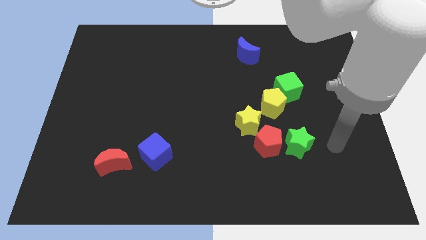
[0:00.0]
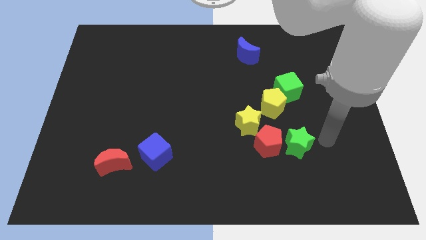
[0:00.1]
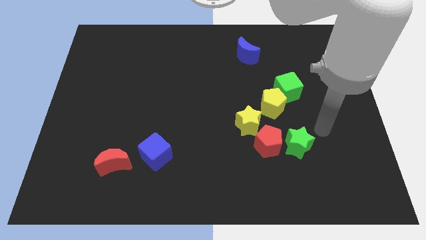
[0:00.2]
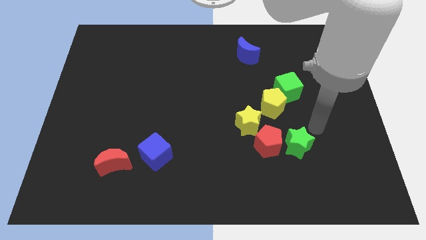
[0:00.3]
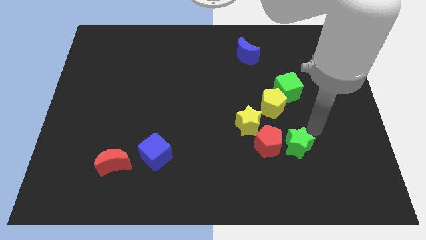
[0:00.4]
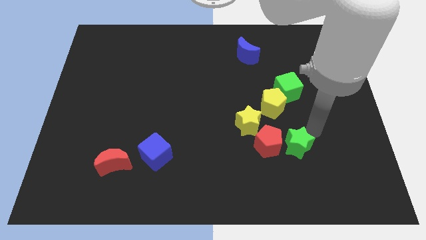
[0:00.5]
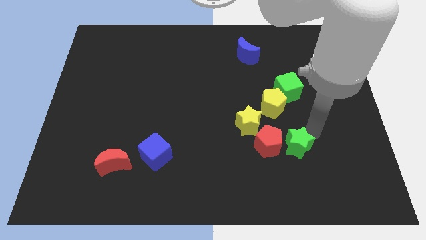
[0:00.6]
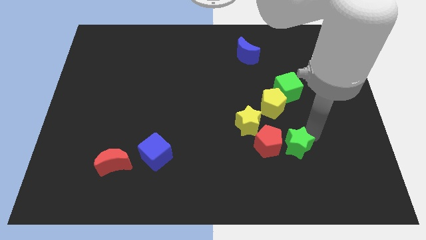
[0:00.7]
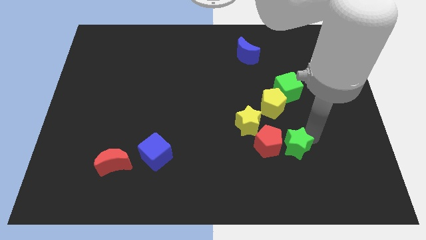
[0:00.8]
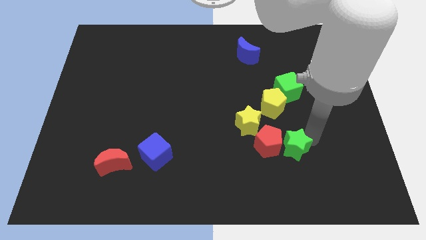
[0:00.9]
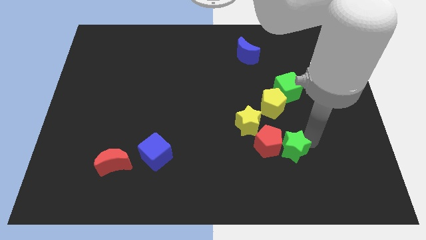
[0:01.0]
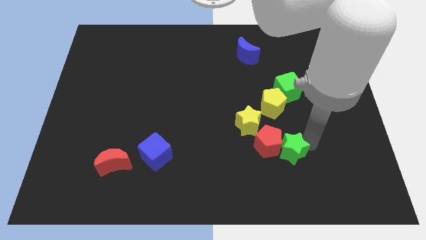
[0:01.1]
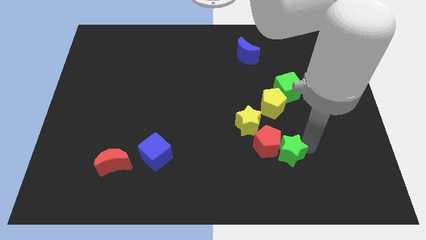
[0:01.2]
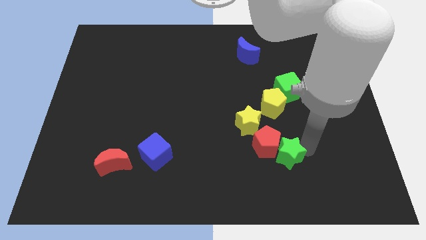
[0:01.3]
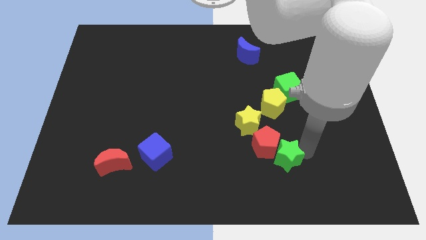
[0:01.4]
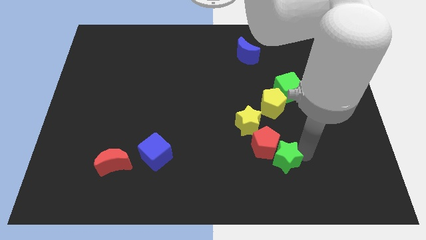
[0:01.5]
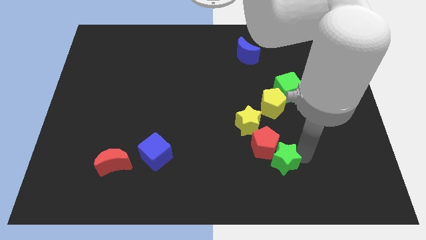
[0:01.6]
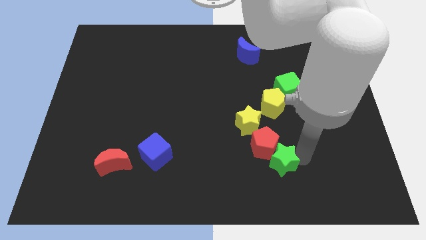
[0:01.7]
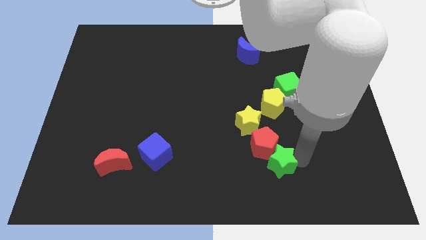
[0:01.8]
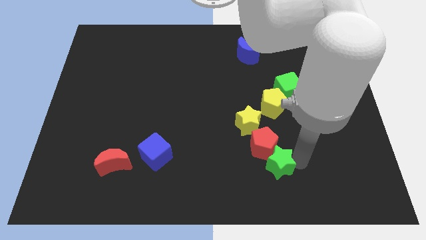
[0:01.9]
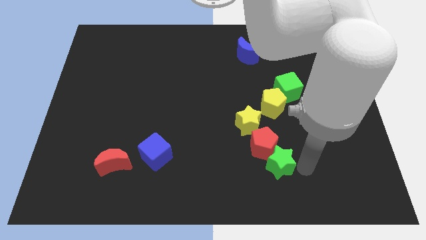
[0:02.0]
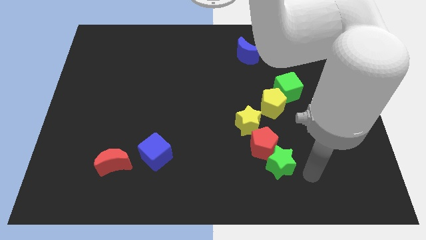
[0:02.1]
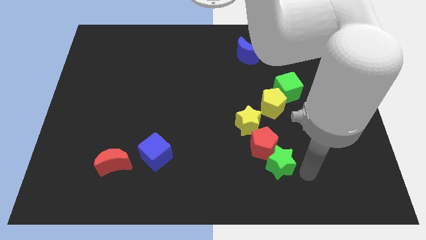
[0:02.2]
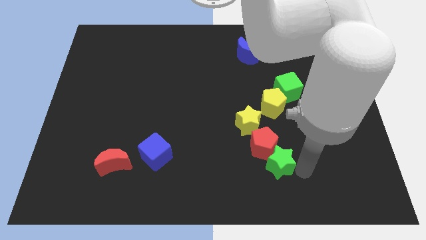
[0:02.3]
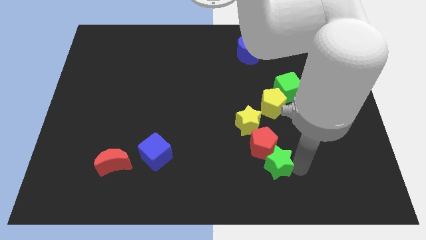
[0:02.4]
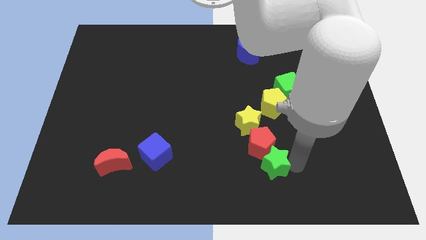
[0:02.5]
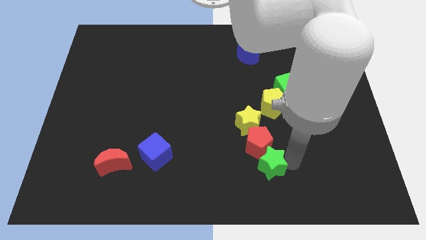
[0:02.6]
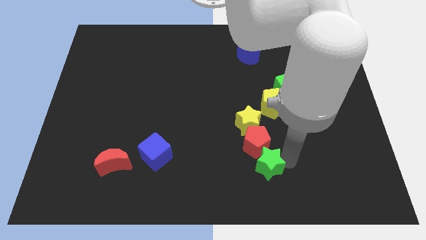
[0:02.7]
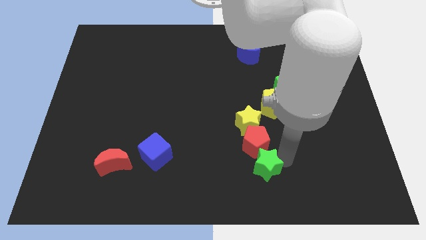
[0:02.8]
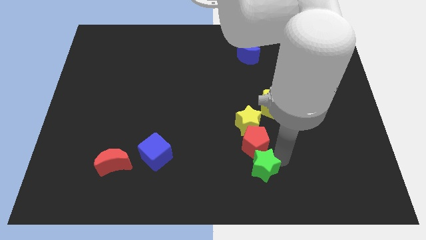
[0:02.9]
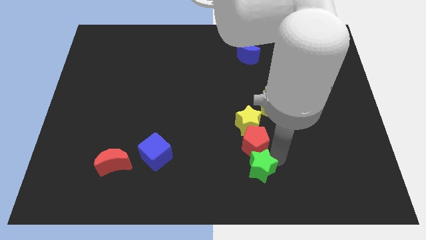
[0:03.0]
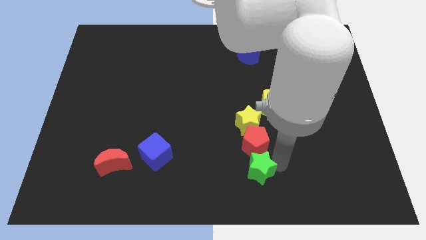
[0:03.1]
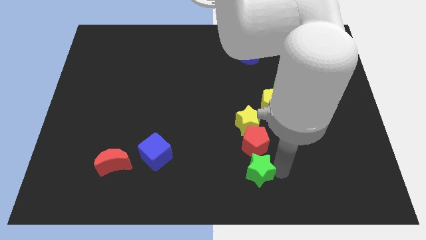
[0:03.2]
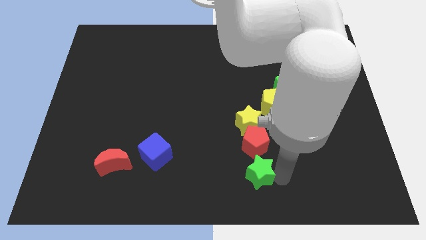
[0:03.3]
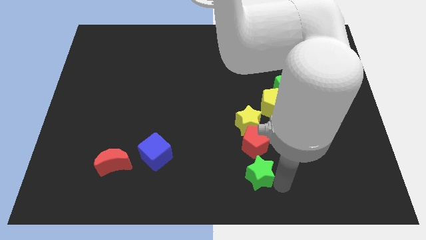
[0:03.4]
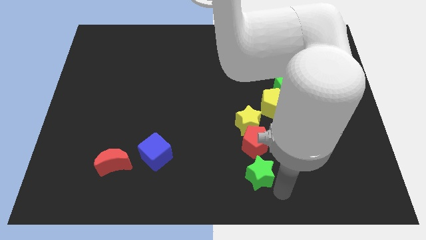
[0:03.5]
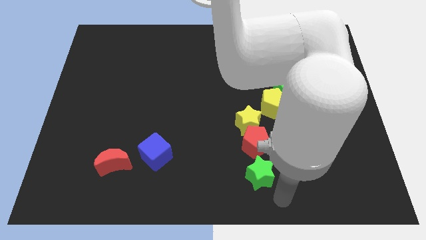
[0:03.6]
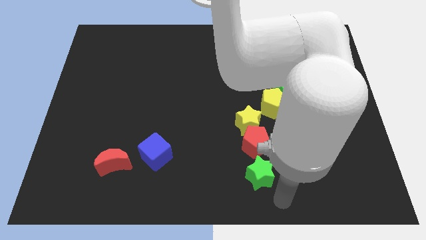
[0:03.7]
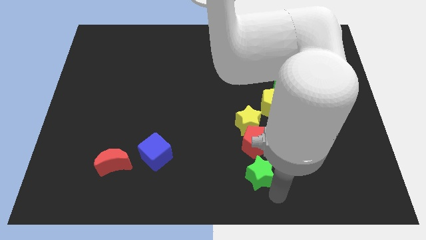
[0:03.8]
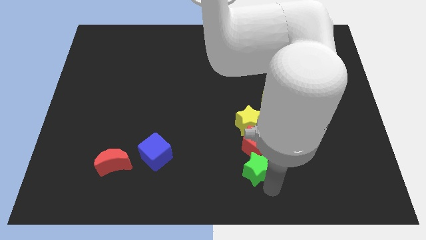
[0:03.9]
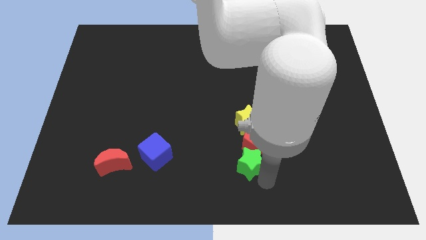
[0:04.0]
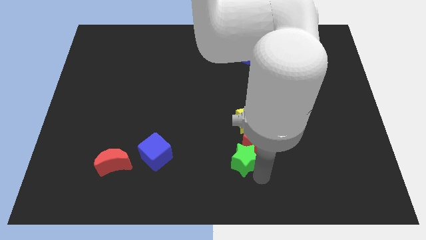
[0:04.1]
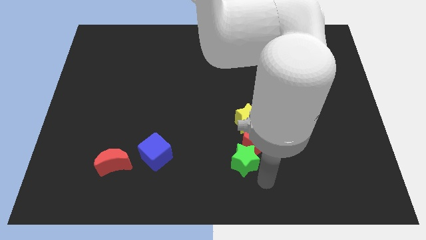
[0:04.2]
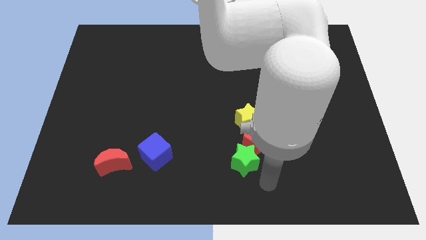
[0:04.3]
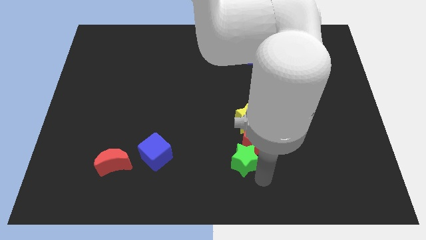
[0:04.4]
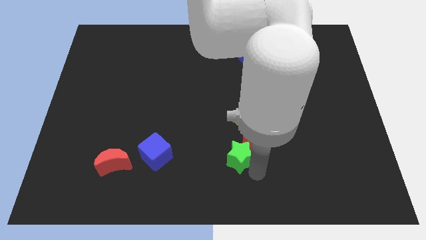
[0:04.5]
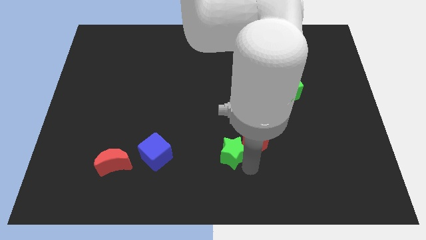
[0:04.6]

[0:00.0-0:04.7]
put the green star to the bottom left side of the yellow star

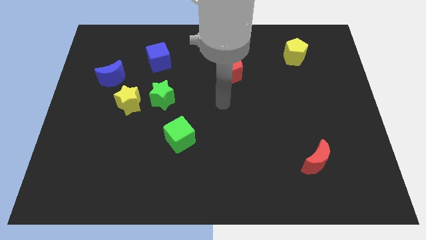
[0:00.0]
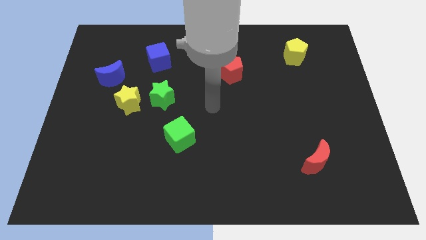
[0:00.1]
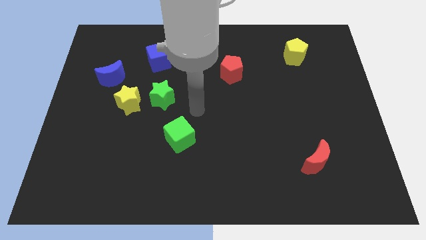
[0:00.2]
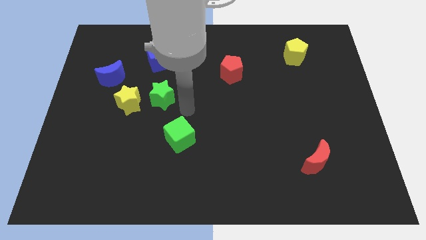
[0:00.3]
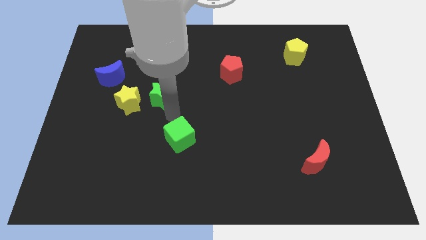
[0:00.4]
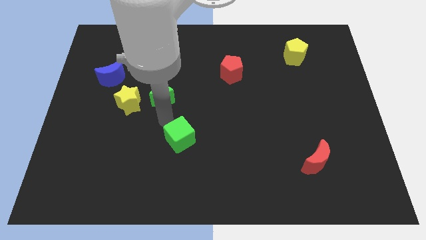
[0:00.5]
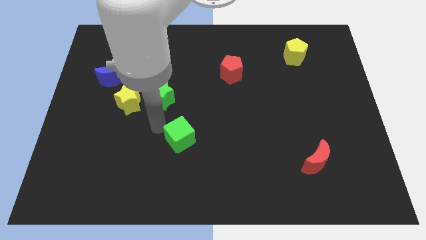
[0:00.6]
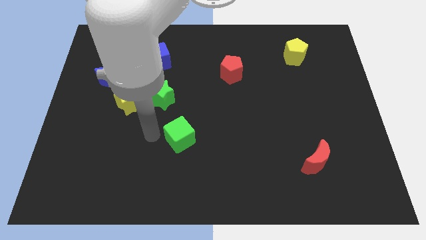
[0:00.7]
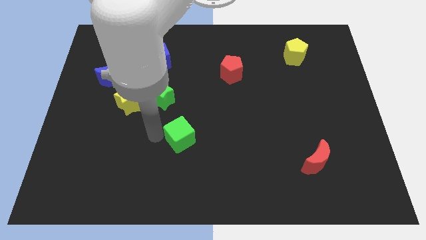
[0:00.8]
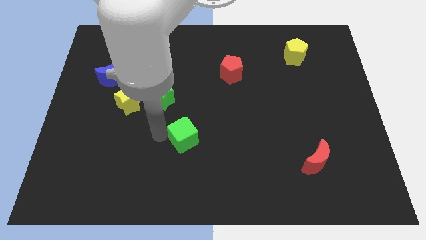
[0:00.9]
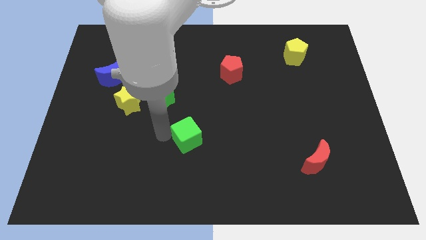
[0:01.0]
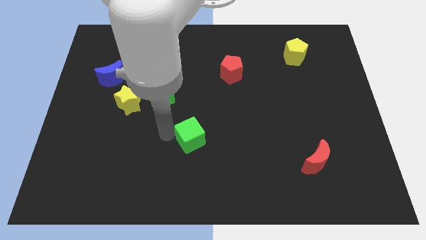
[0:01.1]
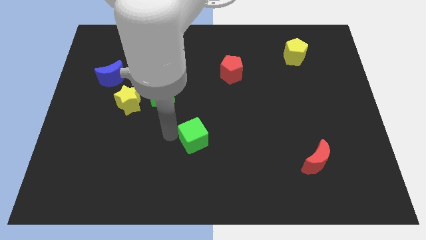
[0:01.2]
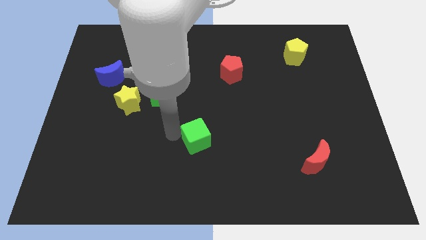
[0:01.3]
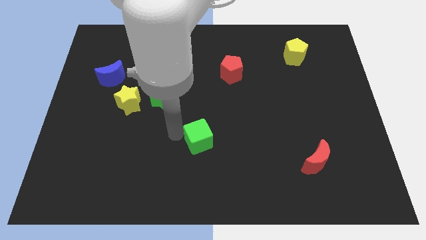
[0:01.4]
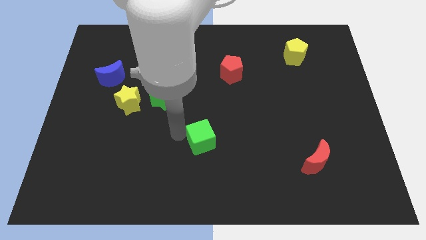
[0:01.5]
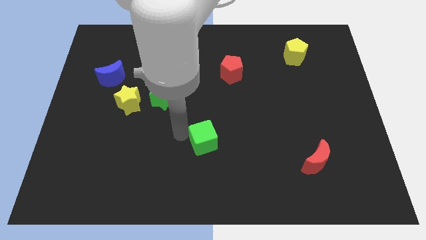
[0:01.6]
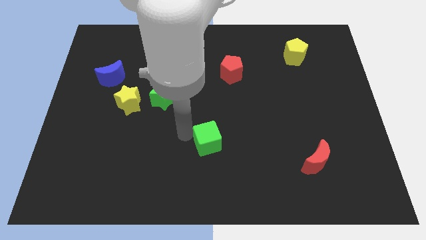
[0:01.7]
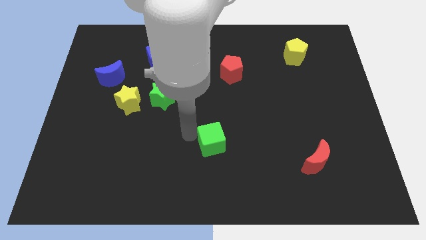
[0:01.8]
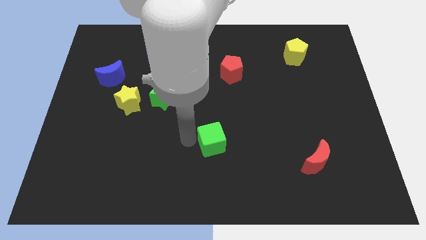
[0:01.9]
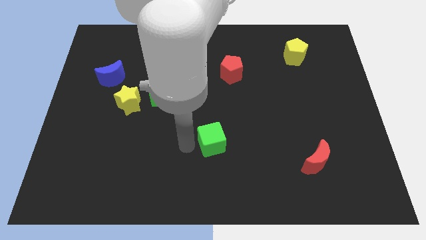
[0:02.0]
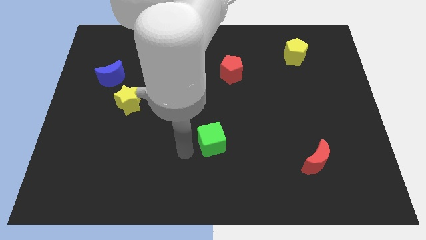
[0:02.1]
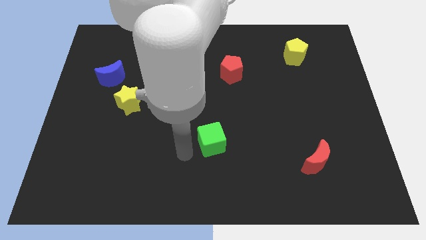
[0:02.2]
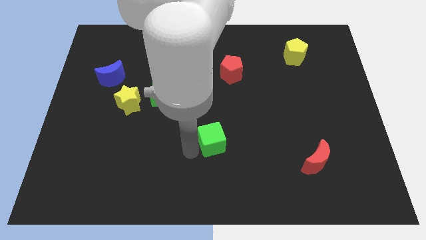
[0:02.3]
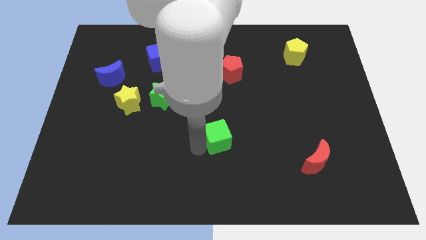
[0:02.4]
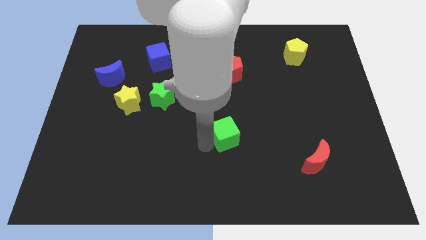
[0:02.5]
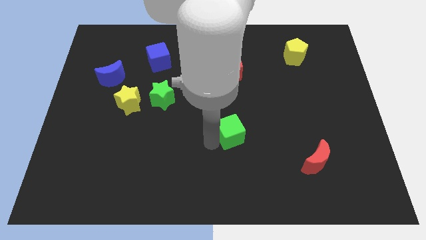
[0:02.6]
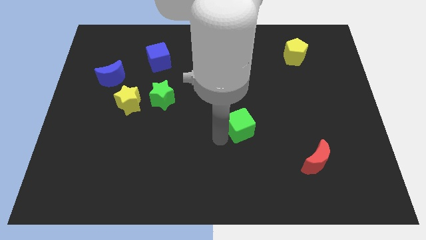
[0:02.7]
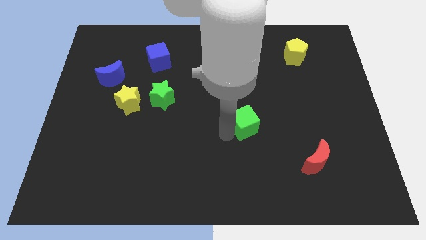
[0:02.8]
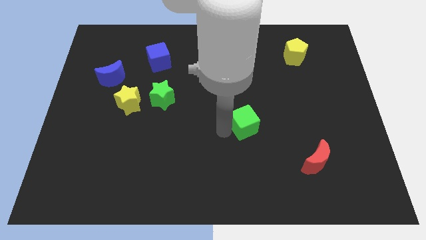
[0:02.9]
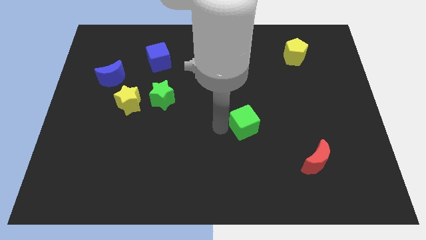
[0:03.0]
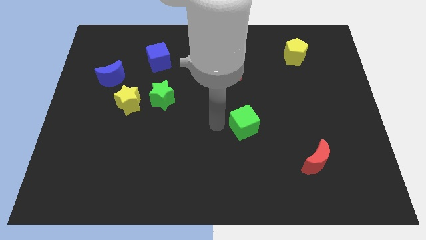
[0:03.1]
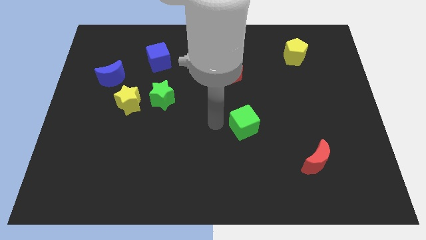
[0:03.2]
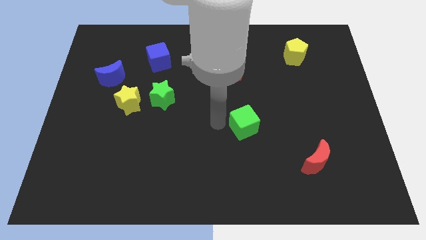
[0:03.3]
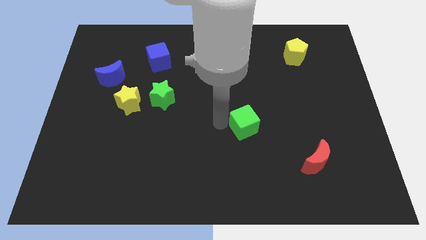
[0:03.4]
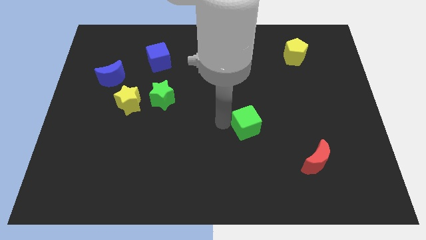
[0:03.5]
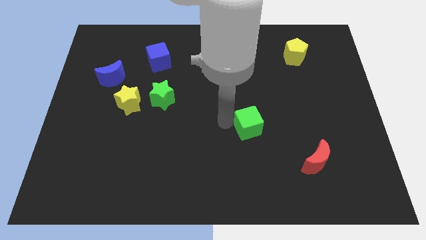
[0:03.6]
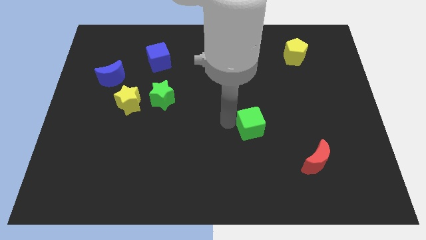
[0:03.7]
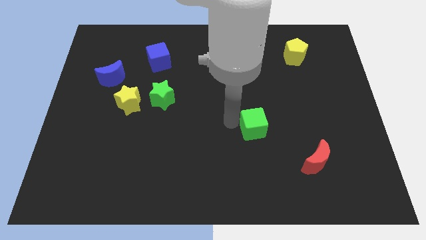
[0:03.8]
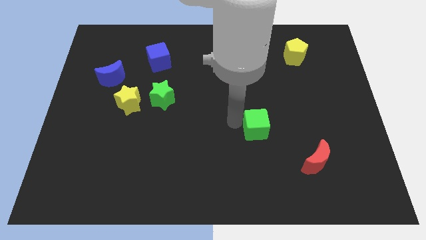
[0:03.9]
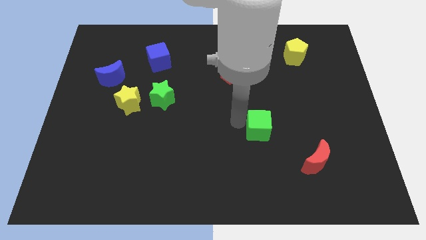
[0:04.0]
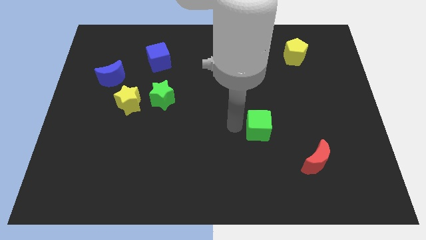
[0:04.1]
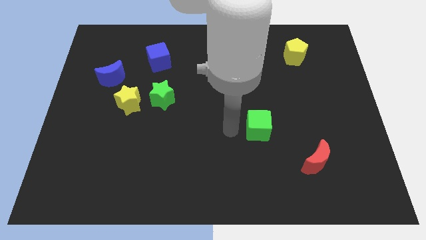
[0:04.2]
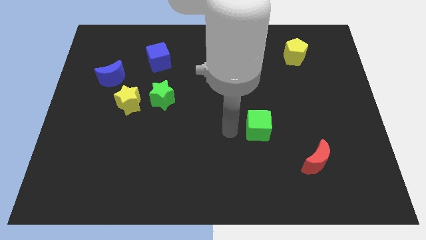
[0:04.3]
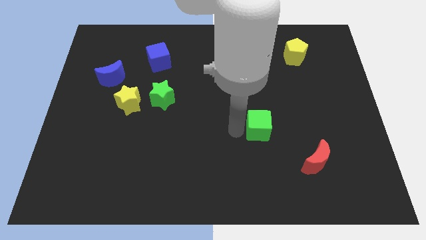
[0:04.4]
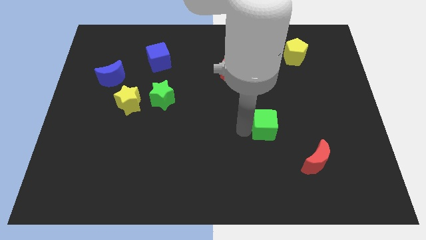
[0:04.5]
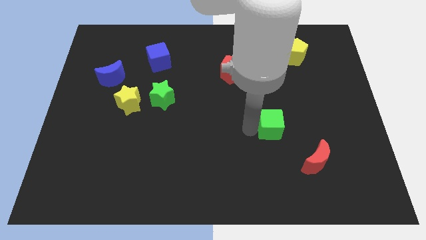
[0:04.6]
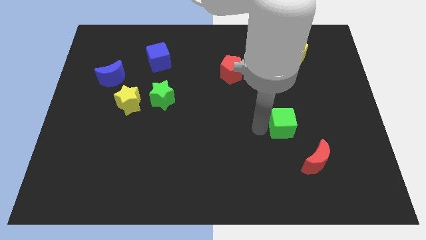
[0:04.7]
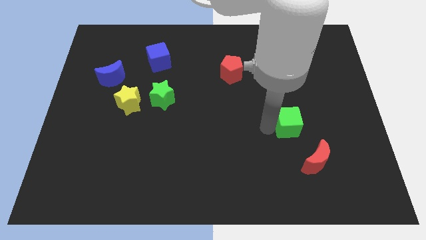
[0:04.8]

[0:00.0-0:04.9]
move the green cube above the red moon
